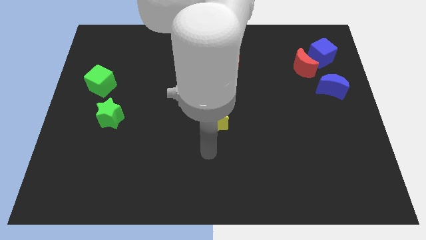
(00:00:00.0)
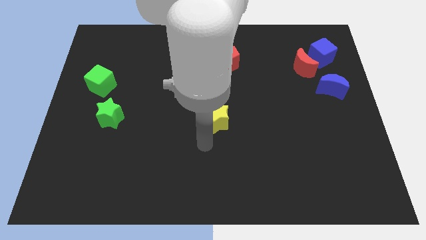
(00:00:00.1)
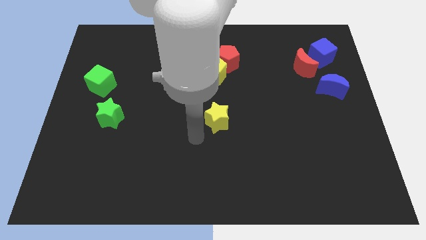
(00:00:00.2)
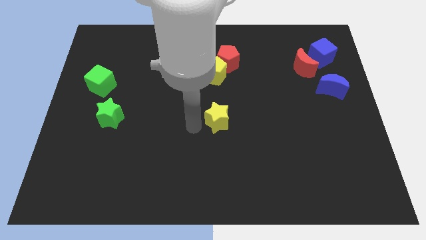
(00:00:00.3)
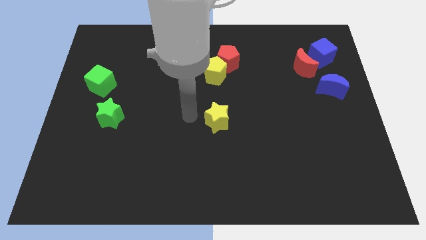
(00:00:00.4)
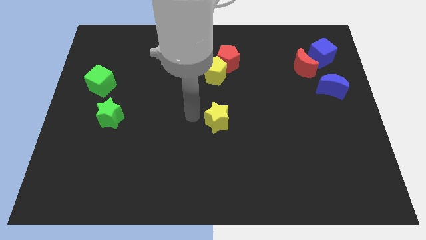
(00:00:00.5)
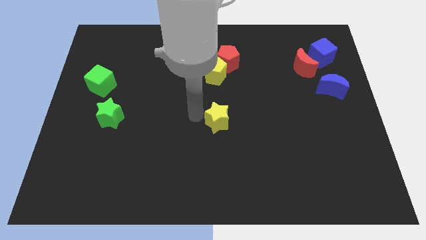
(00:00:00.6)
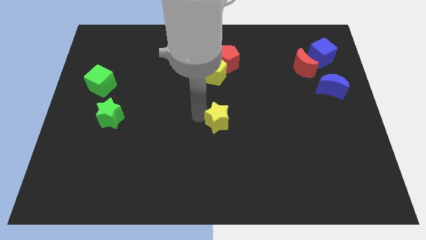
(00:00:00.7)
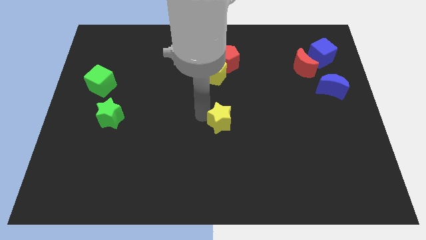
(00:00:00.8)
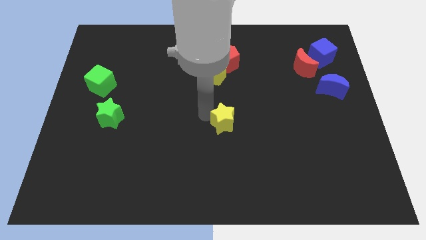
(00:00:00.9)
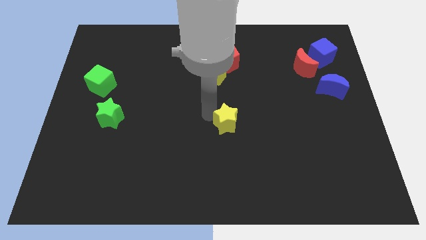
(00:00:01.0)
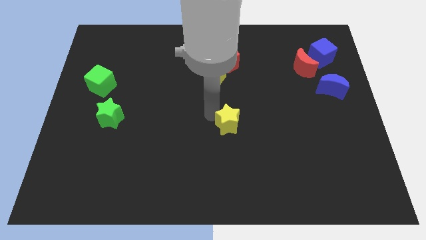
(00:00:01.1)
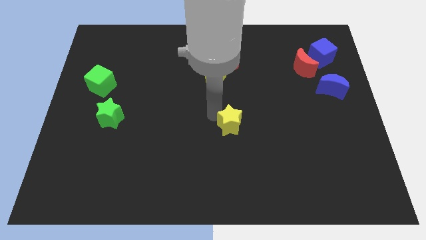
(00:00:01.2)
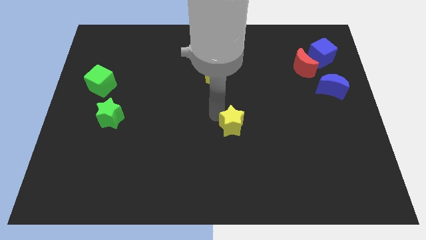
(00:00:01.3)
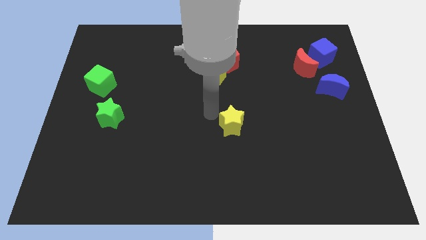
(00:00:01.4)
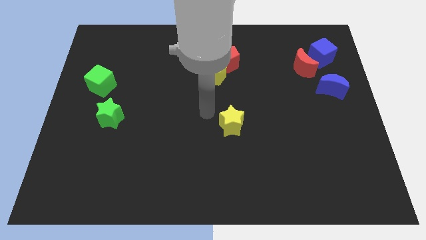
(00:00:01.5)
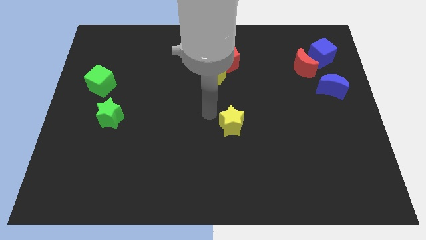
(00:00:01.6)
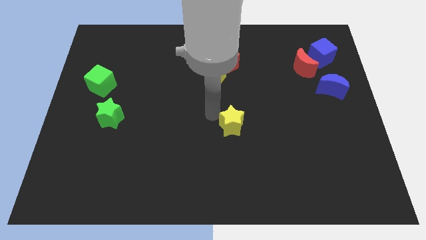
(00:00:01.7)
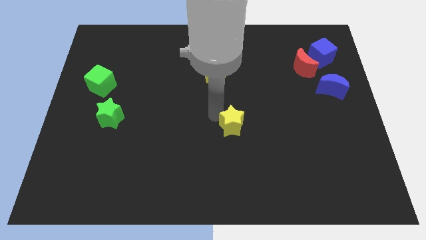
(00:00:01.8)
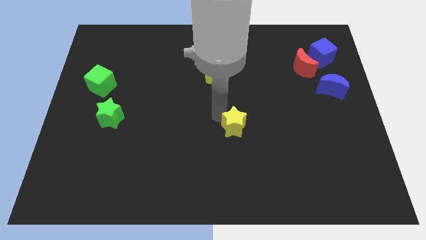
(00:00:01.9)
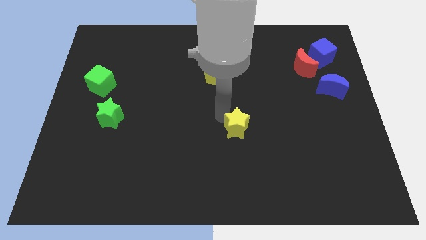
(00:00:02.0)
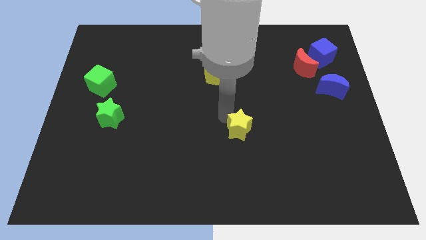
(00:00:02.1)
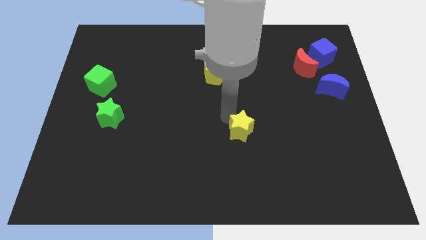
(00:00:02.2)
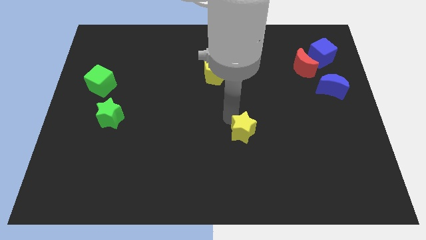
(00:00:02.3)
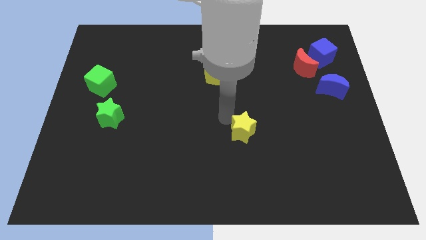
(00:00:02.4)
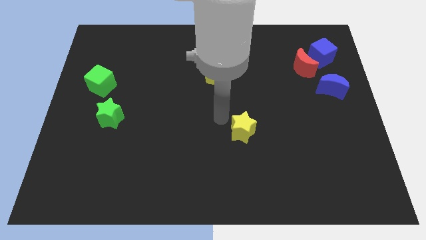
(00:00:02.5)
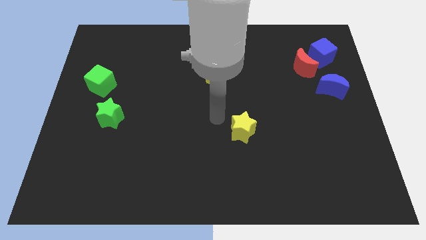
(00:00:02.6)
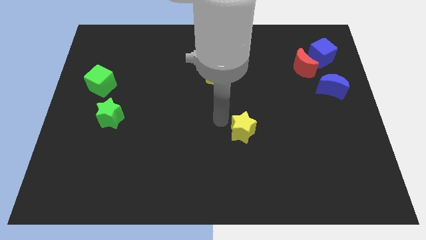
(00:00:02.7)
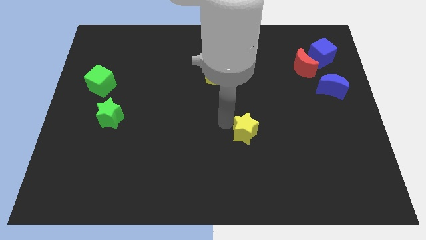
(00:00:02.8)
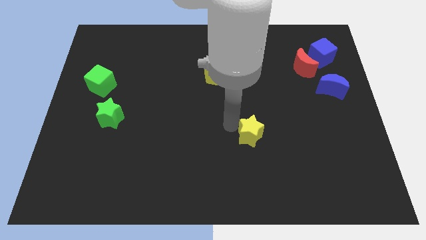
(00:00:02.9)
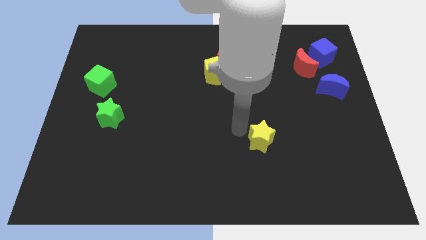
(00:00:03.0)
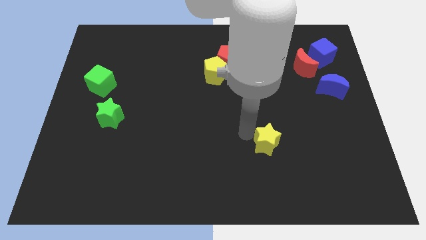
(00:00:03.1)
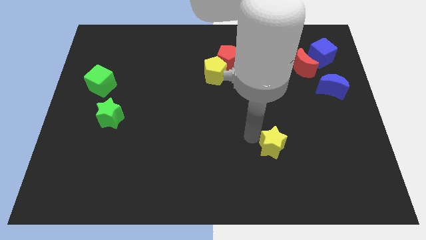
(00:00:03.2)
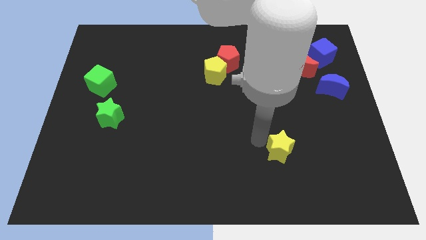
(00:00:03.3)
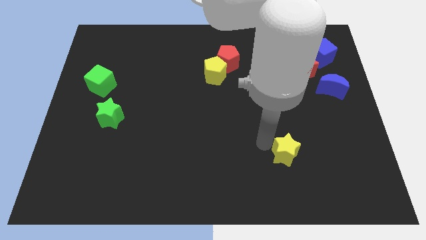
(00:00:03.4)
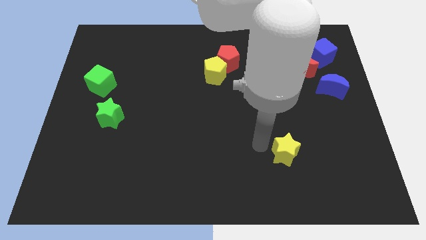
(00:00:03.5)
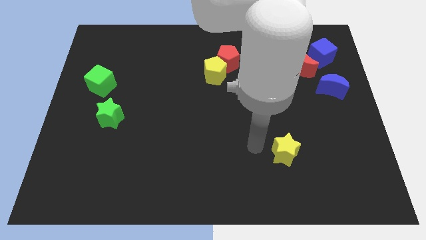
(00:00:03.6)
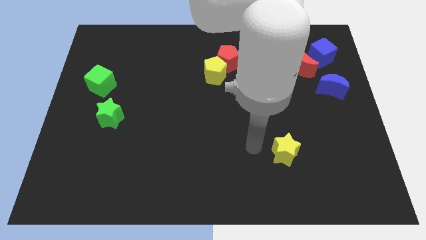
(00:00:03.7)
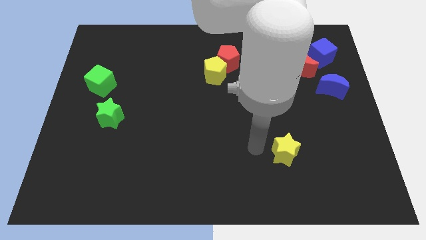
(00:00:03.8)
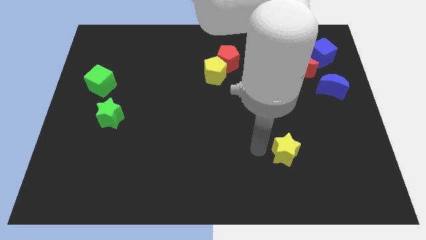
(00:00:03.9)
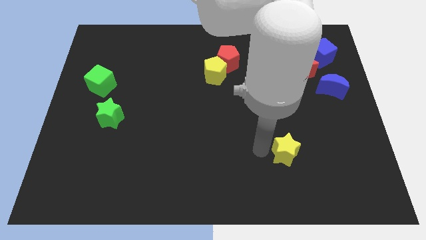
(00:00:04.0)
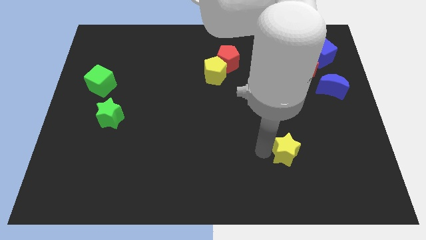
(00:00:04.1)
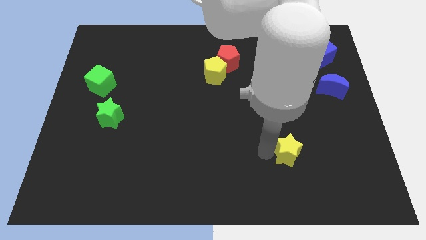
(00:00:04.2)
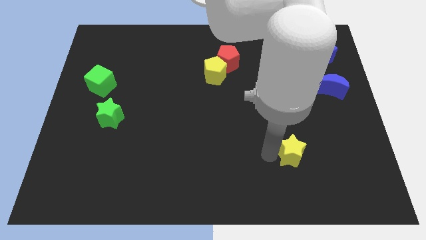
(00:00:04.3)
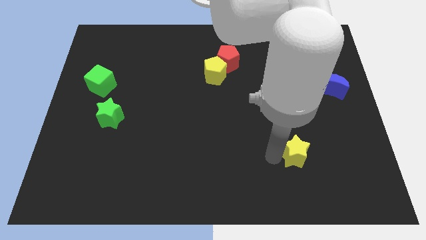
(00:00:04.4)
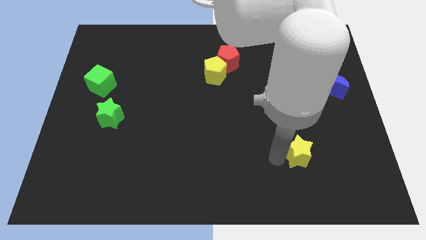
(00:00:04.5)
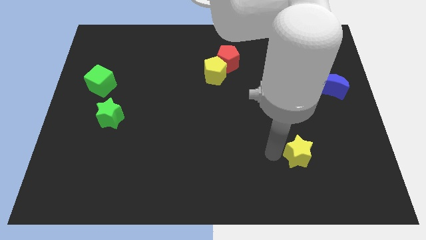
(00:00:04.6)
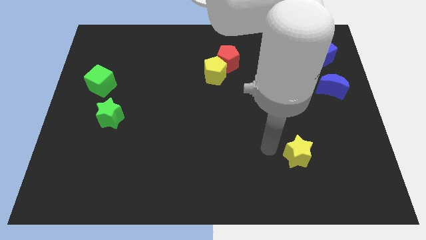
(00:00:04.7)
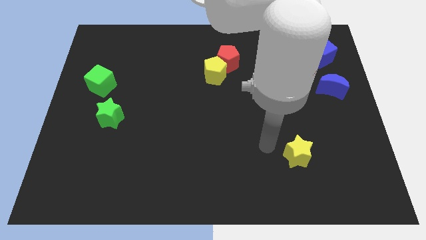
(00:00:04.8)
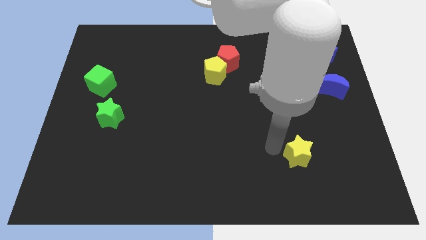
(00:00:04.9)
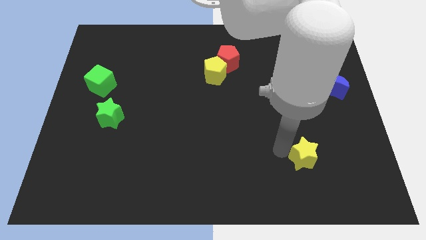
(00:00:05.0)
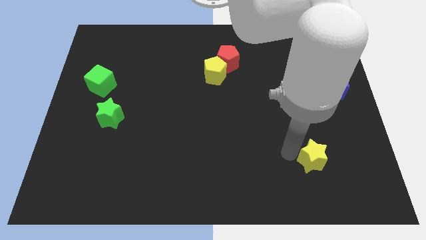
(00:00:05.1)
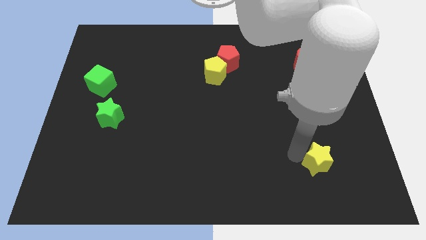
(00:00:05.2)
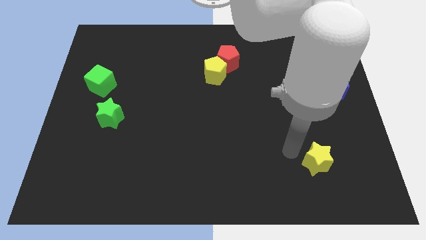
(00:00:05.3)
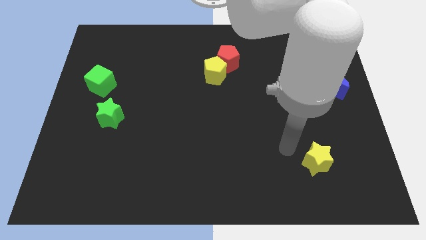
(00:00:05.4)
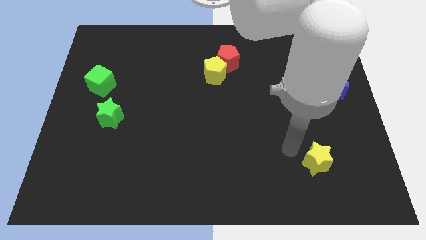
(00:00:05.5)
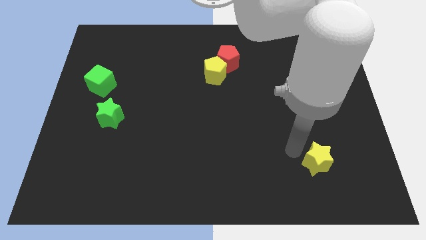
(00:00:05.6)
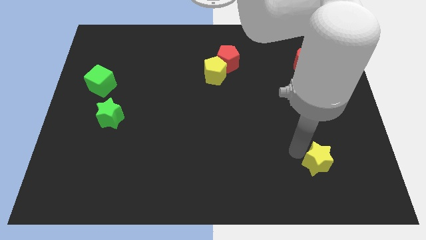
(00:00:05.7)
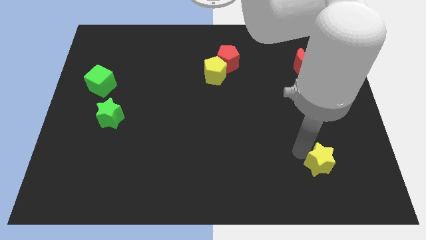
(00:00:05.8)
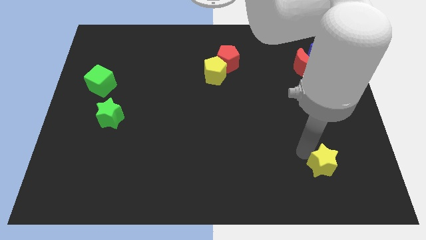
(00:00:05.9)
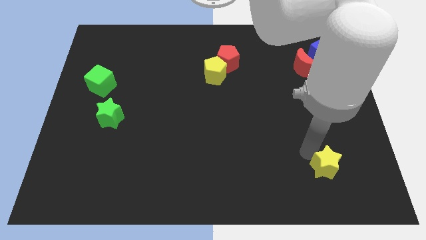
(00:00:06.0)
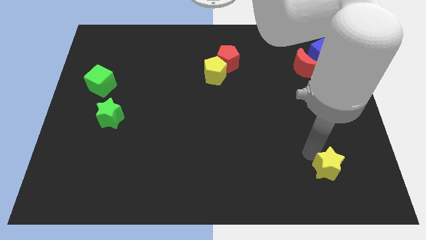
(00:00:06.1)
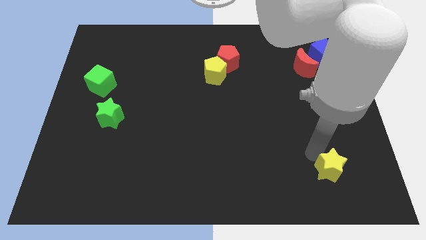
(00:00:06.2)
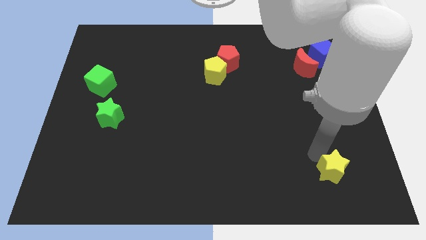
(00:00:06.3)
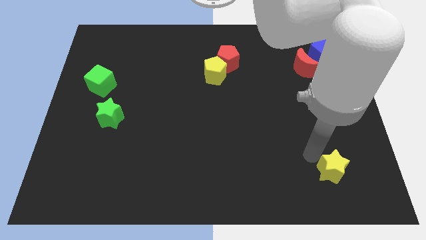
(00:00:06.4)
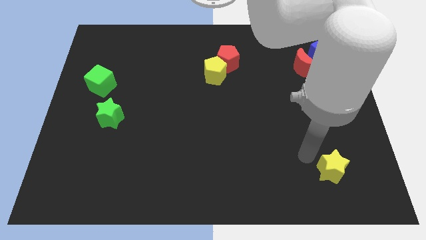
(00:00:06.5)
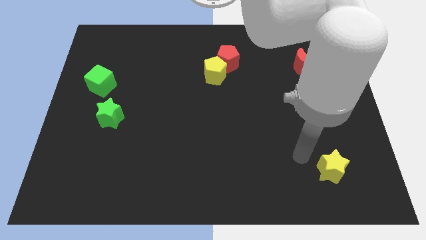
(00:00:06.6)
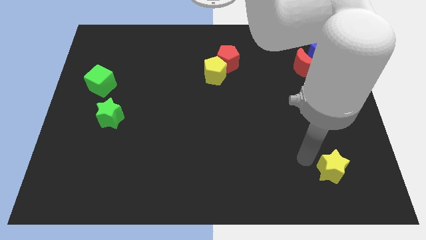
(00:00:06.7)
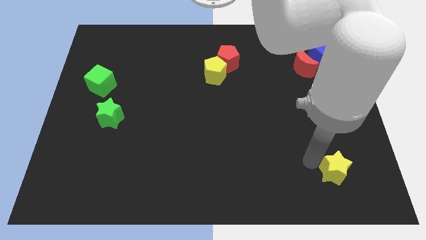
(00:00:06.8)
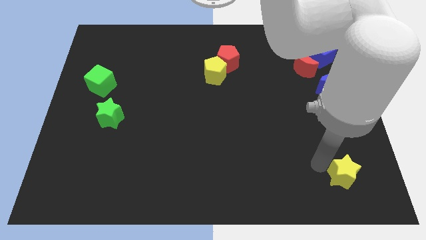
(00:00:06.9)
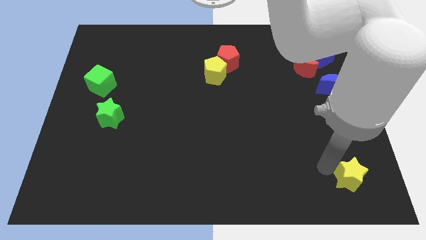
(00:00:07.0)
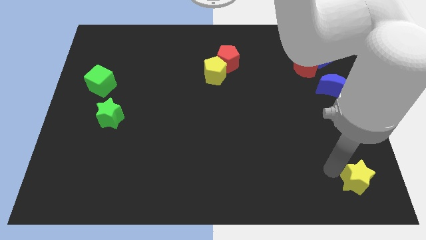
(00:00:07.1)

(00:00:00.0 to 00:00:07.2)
push the yellow star to the bottom right corner

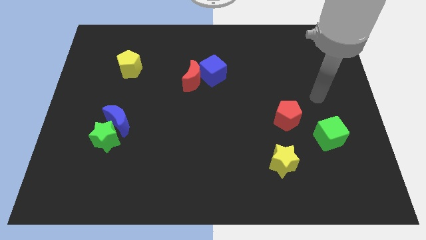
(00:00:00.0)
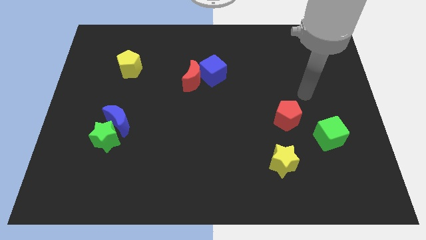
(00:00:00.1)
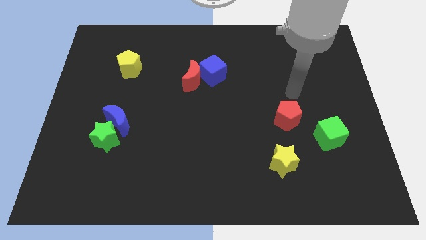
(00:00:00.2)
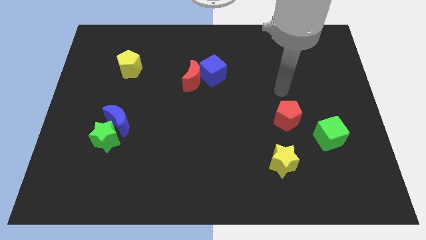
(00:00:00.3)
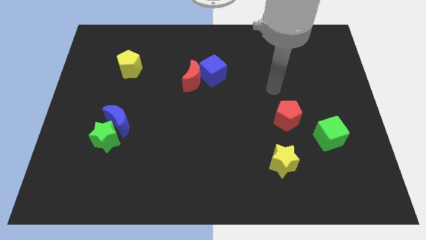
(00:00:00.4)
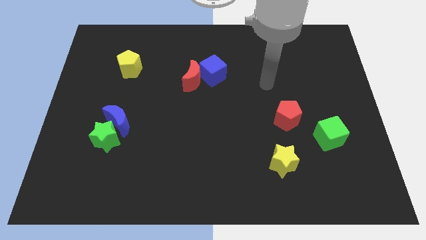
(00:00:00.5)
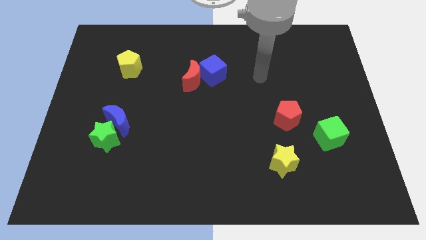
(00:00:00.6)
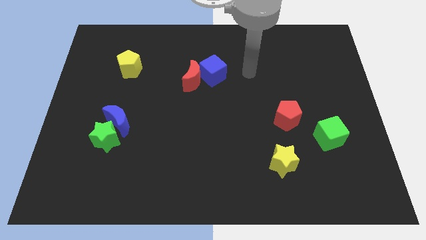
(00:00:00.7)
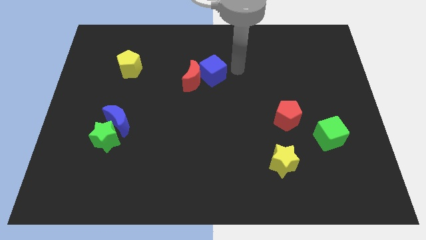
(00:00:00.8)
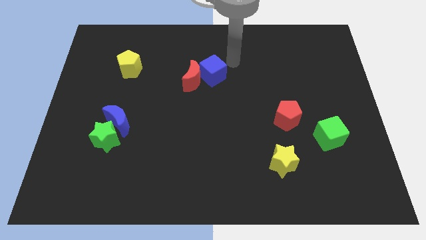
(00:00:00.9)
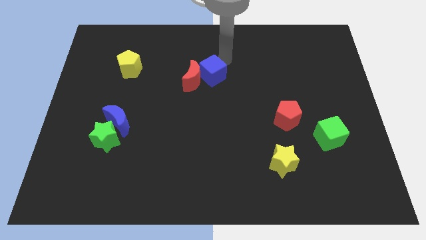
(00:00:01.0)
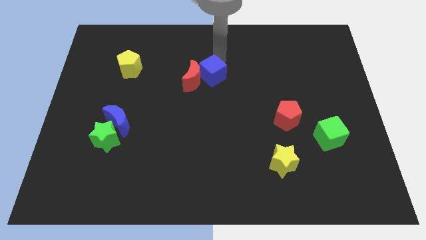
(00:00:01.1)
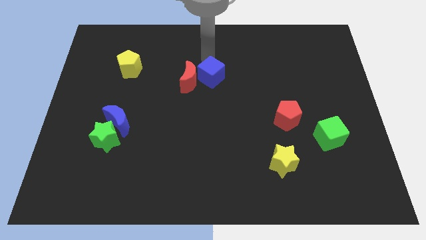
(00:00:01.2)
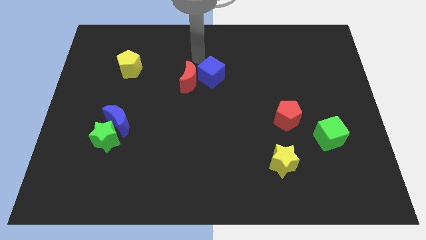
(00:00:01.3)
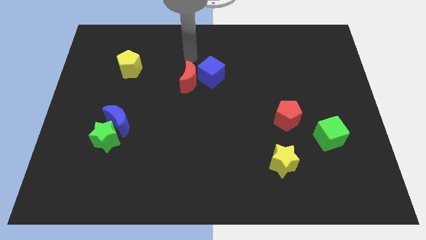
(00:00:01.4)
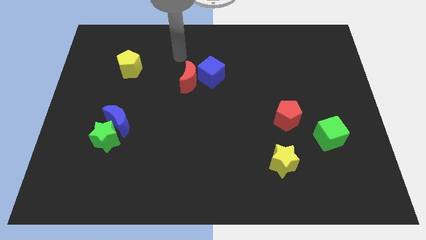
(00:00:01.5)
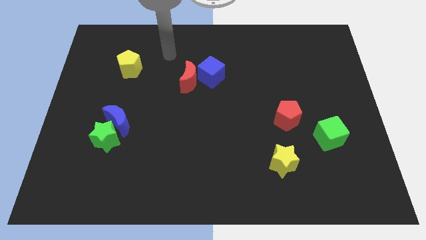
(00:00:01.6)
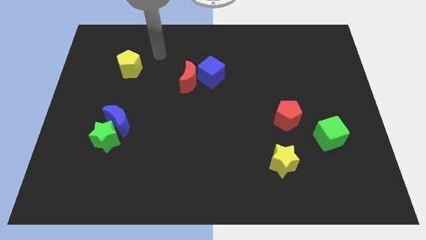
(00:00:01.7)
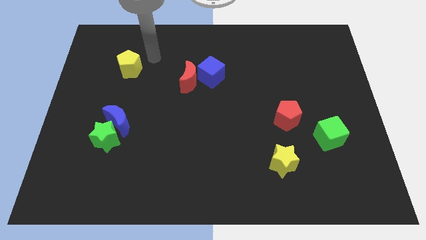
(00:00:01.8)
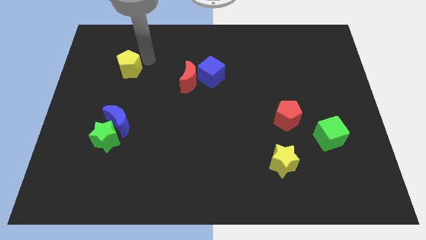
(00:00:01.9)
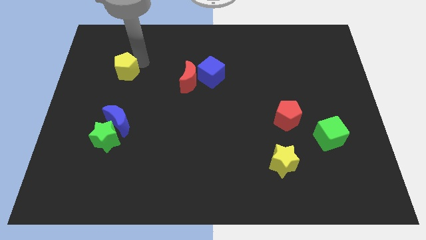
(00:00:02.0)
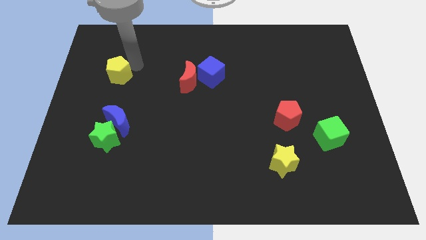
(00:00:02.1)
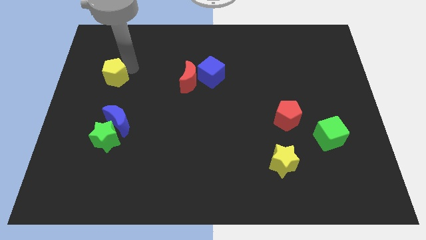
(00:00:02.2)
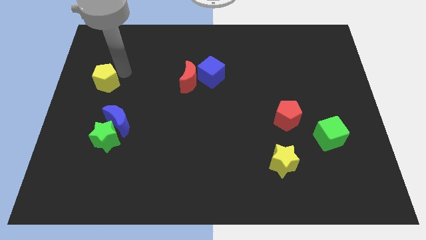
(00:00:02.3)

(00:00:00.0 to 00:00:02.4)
slide the yellow pentagon to the left side
